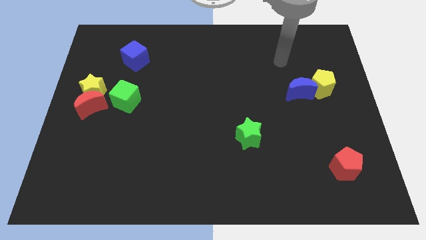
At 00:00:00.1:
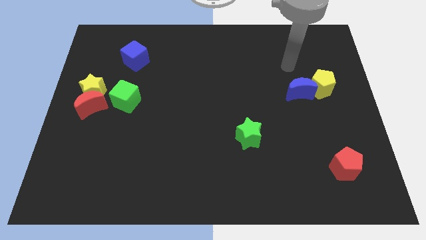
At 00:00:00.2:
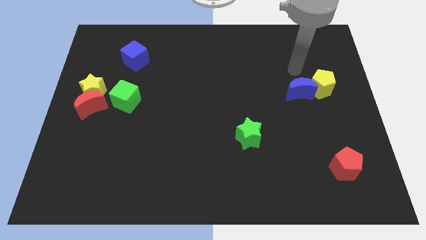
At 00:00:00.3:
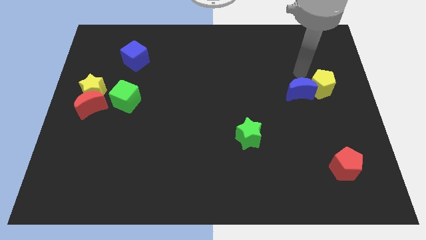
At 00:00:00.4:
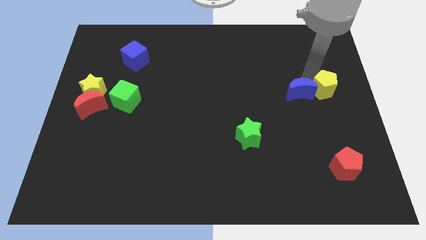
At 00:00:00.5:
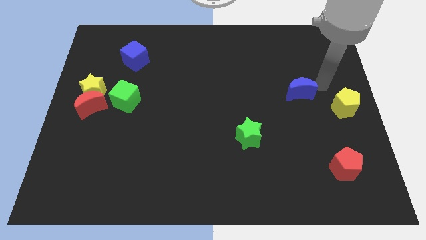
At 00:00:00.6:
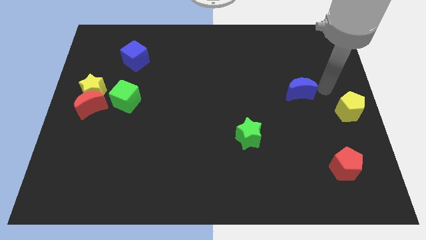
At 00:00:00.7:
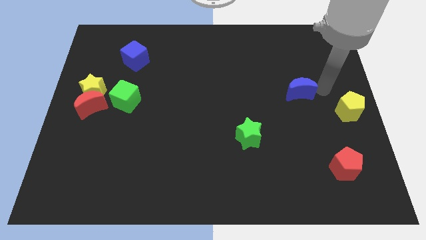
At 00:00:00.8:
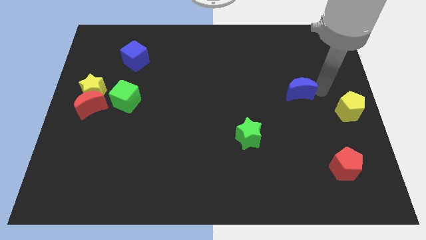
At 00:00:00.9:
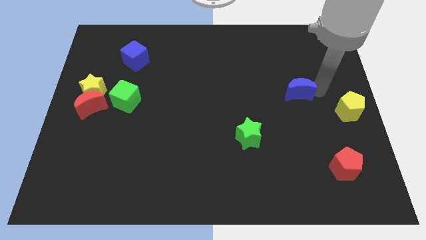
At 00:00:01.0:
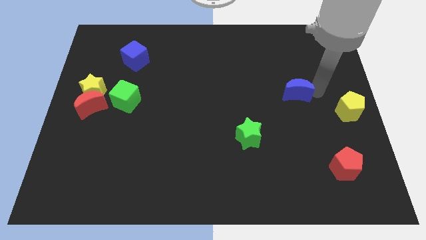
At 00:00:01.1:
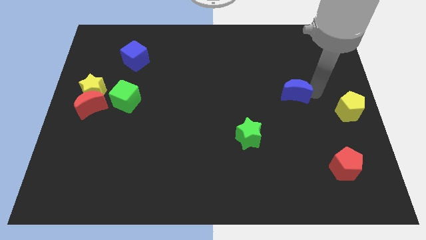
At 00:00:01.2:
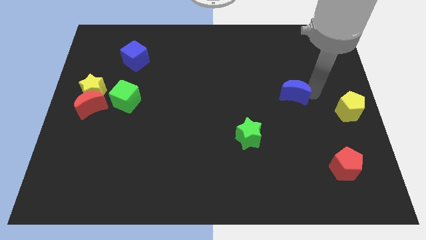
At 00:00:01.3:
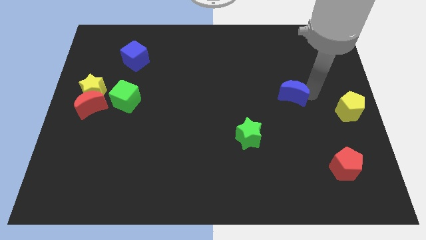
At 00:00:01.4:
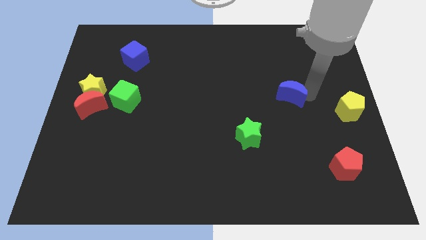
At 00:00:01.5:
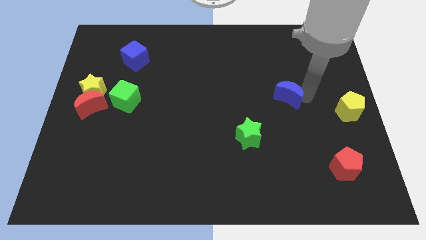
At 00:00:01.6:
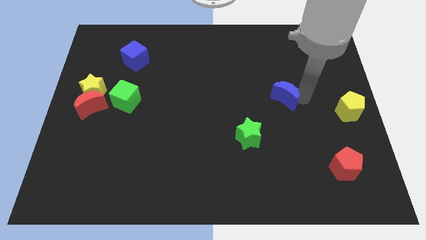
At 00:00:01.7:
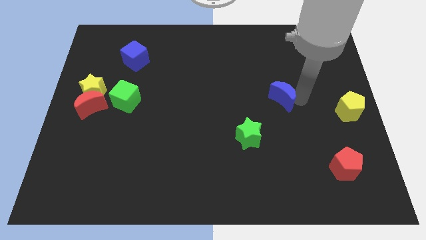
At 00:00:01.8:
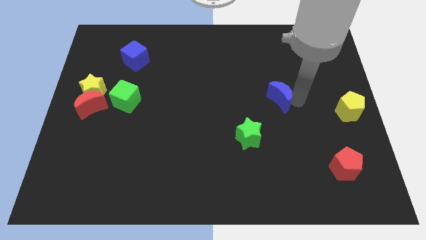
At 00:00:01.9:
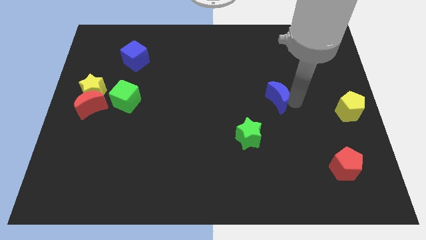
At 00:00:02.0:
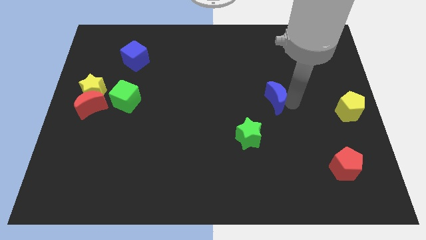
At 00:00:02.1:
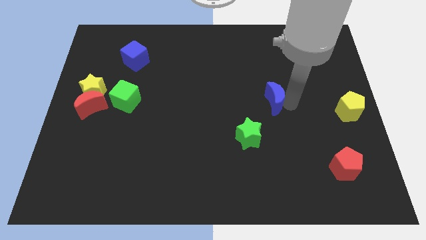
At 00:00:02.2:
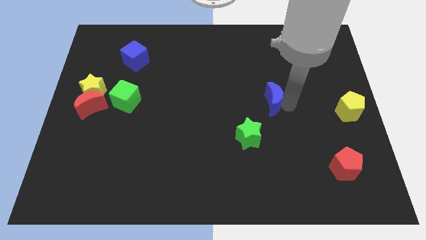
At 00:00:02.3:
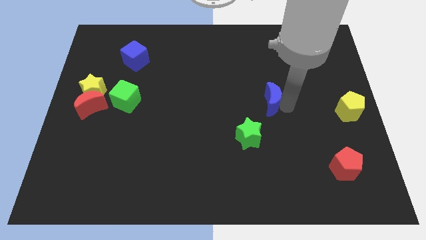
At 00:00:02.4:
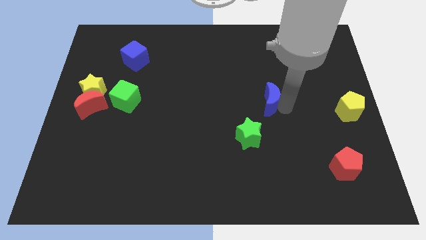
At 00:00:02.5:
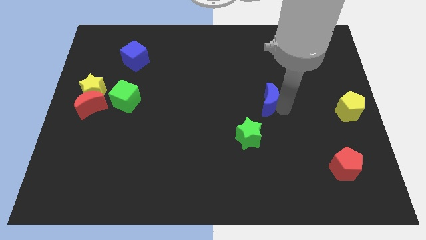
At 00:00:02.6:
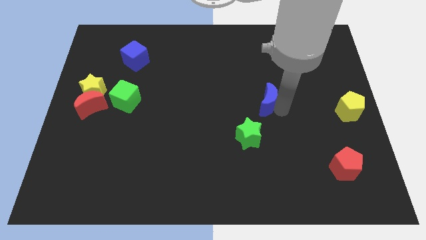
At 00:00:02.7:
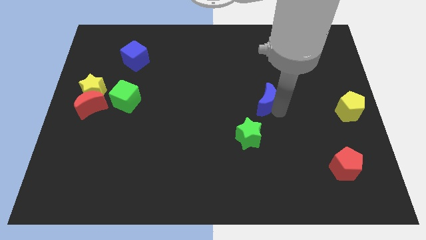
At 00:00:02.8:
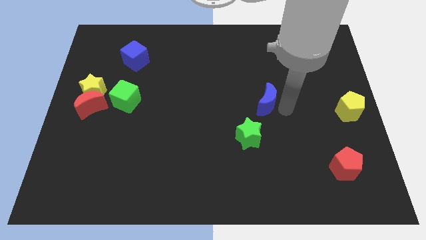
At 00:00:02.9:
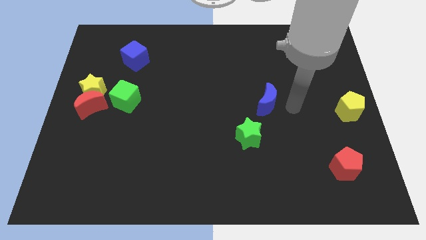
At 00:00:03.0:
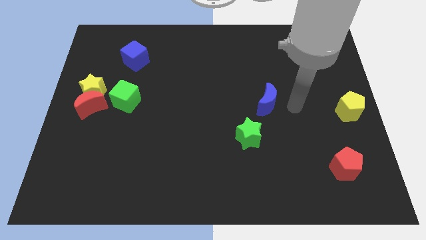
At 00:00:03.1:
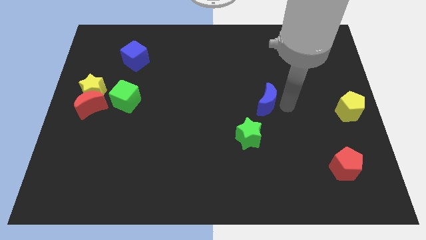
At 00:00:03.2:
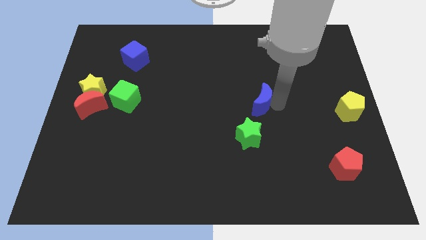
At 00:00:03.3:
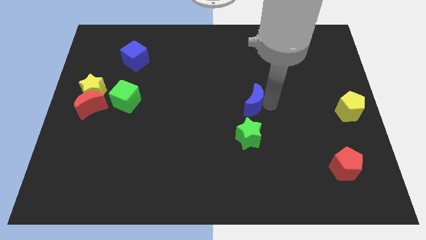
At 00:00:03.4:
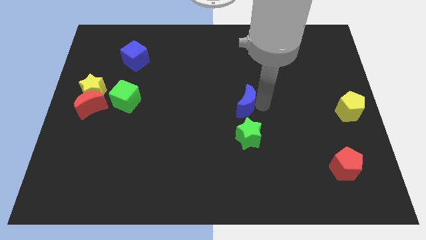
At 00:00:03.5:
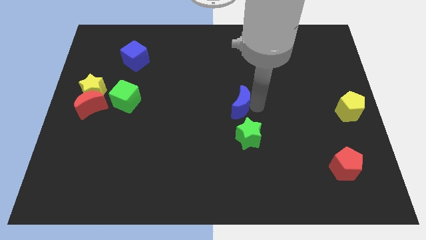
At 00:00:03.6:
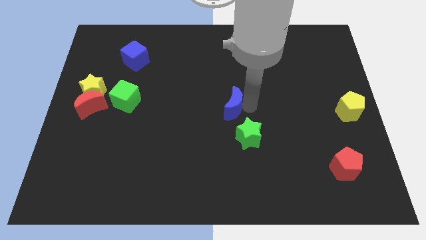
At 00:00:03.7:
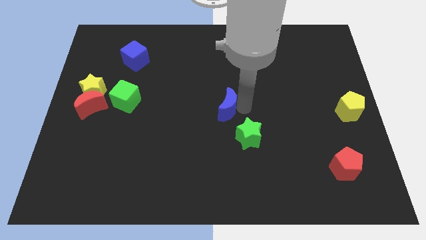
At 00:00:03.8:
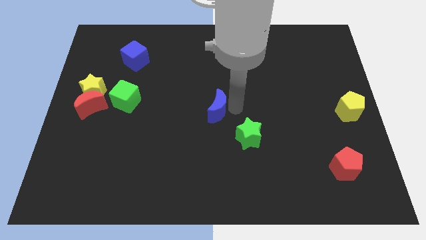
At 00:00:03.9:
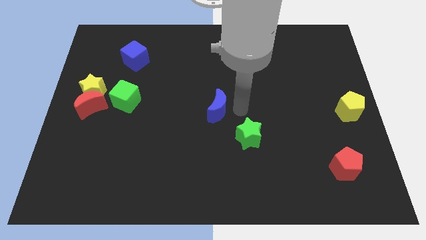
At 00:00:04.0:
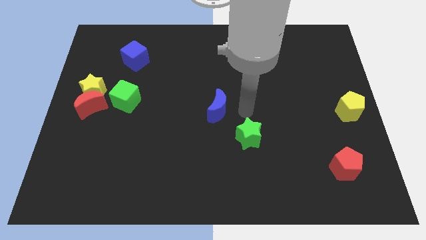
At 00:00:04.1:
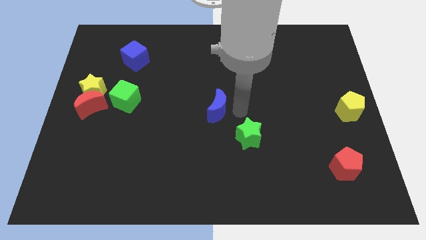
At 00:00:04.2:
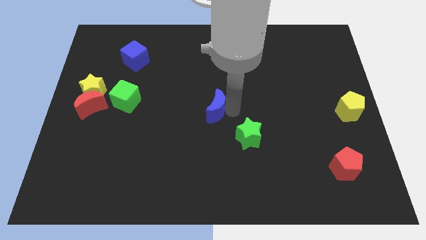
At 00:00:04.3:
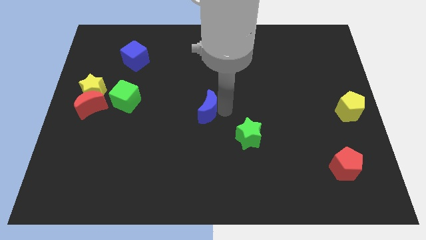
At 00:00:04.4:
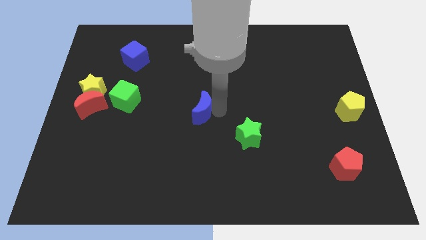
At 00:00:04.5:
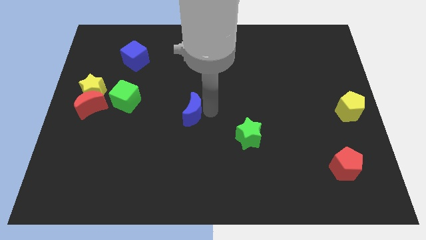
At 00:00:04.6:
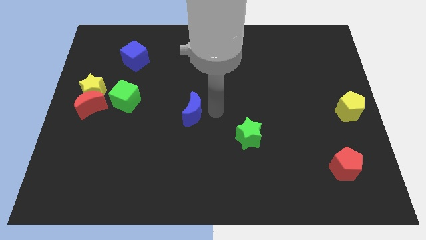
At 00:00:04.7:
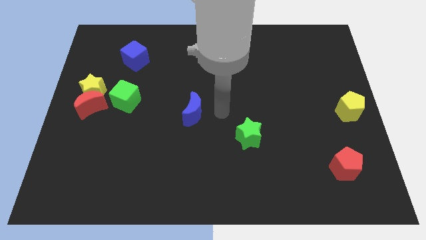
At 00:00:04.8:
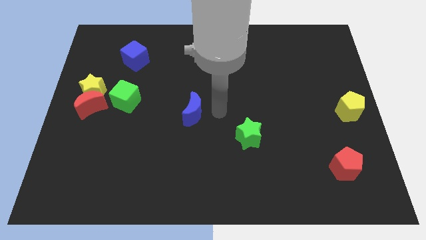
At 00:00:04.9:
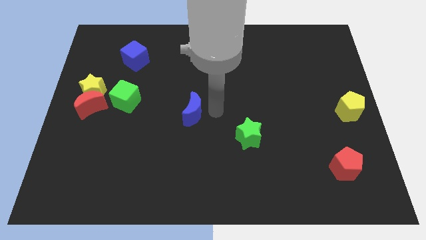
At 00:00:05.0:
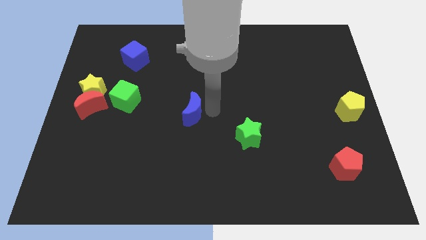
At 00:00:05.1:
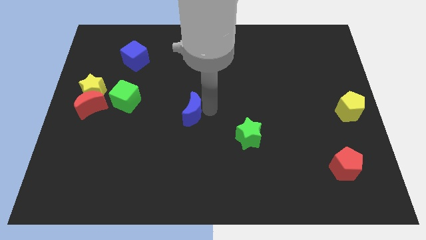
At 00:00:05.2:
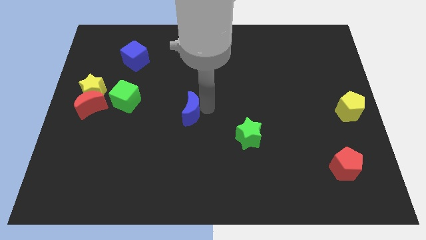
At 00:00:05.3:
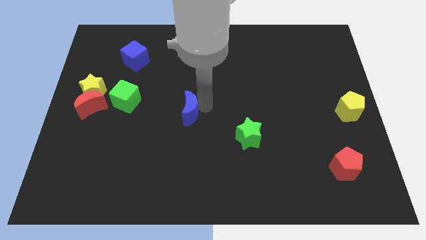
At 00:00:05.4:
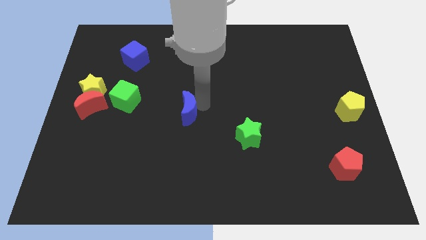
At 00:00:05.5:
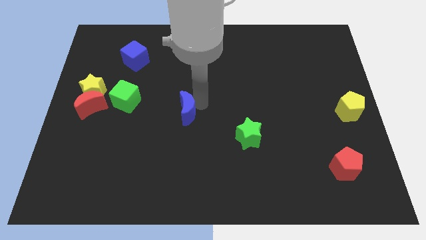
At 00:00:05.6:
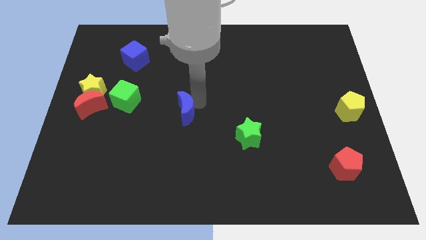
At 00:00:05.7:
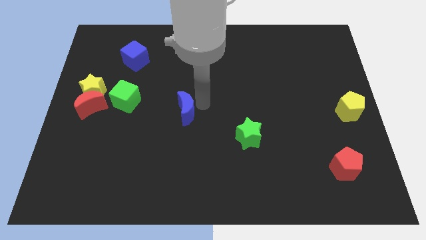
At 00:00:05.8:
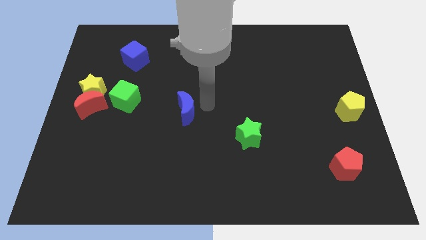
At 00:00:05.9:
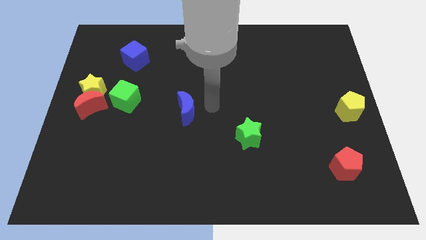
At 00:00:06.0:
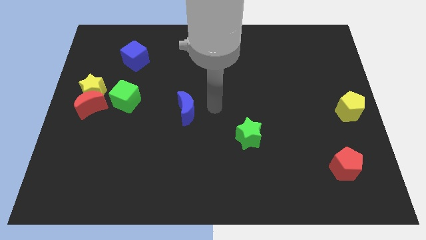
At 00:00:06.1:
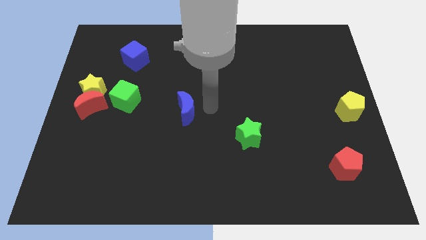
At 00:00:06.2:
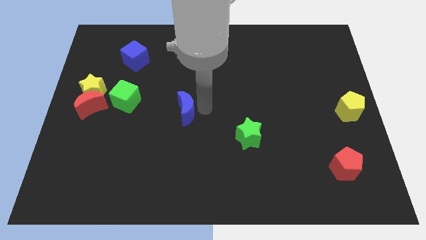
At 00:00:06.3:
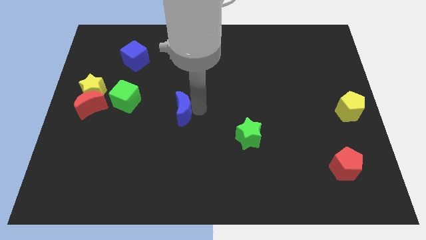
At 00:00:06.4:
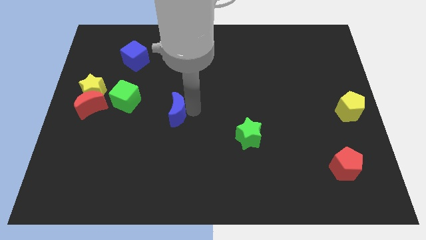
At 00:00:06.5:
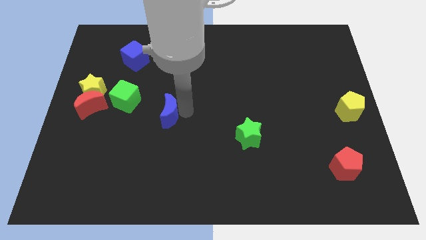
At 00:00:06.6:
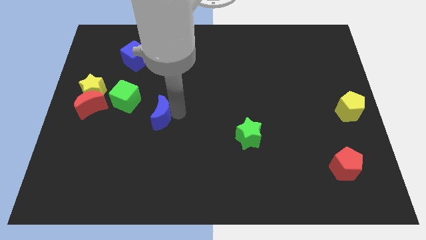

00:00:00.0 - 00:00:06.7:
slide the blue moon diagonally down and to the right of the green cube
